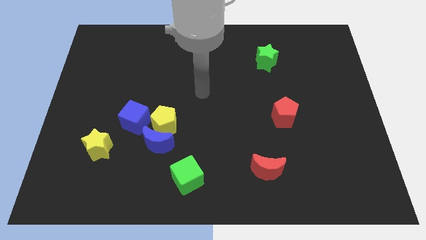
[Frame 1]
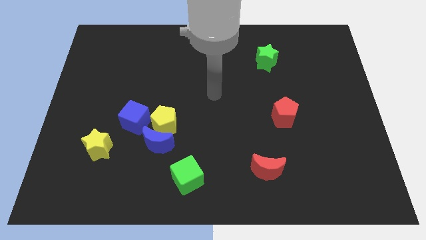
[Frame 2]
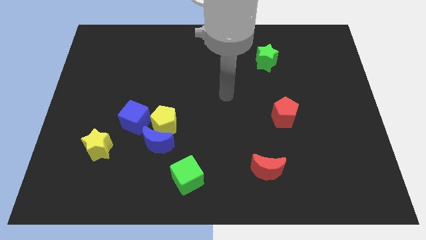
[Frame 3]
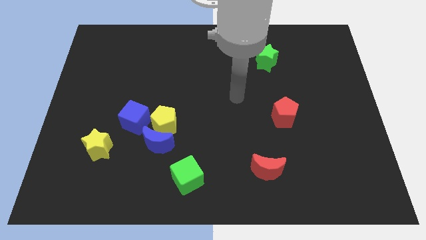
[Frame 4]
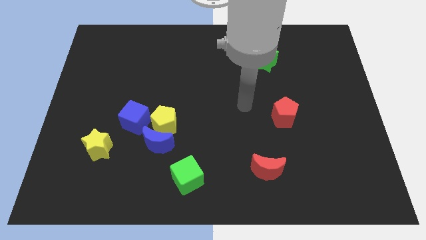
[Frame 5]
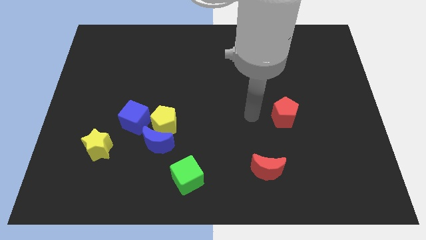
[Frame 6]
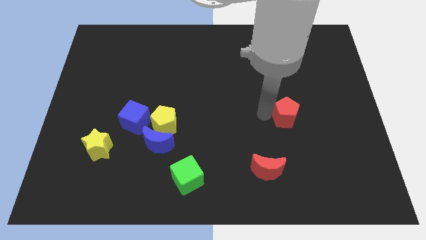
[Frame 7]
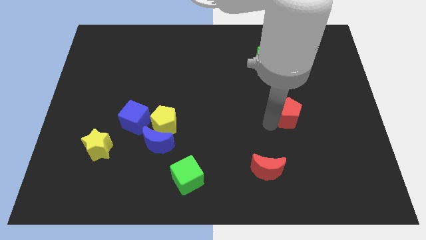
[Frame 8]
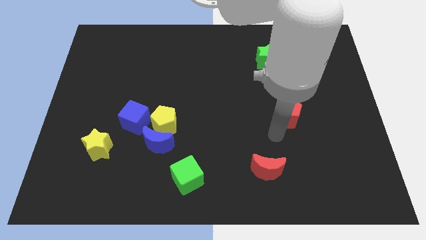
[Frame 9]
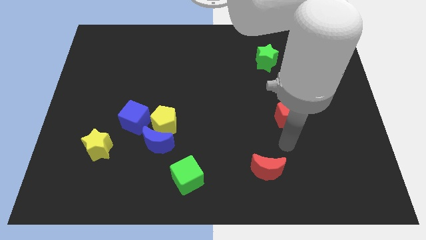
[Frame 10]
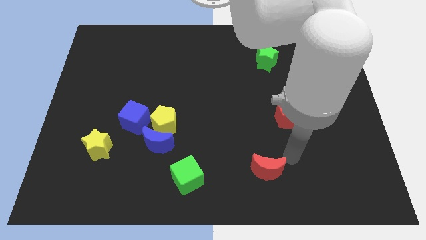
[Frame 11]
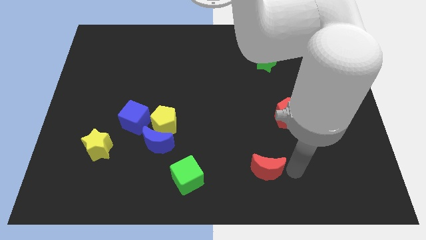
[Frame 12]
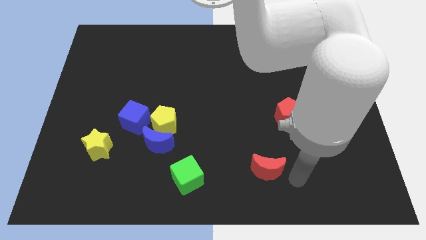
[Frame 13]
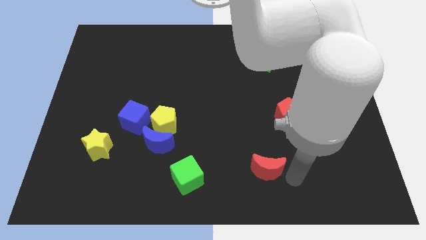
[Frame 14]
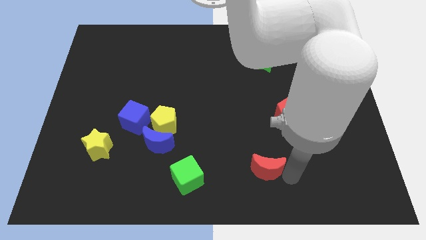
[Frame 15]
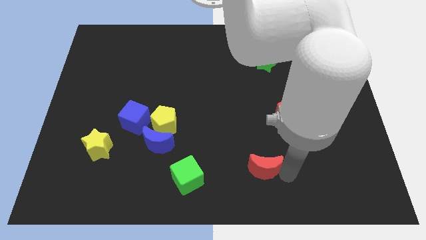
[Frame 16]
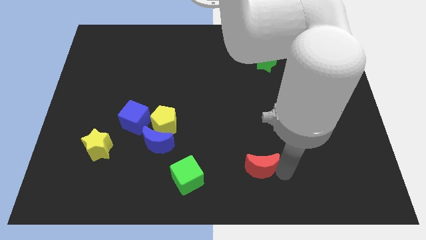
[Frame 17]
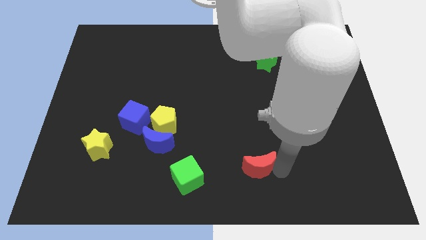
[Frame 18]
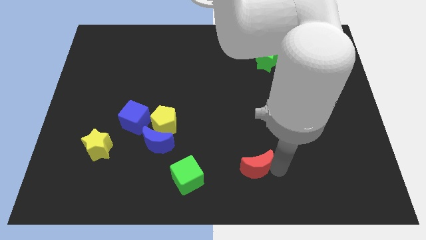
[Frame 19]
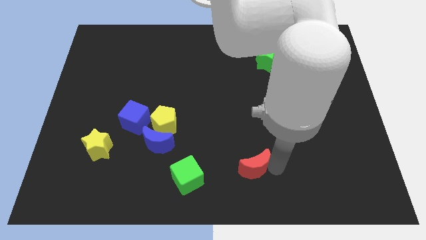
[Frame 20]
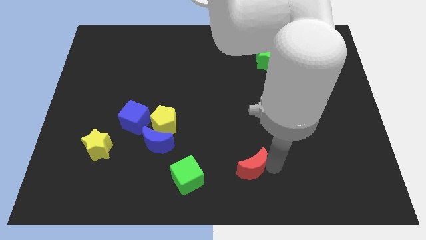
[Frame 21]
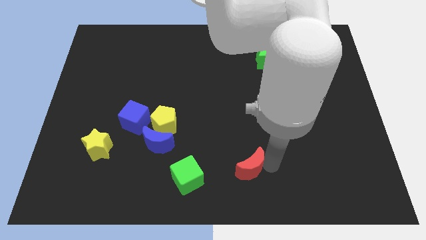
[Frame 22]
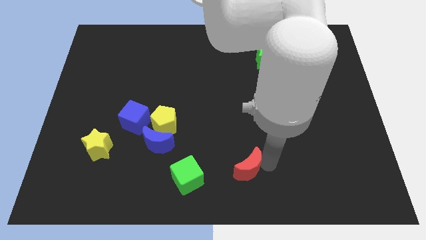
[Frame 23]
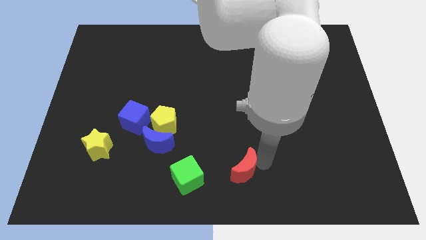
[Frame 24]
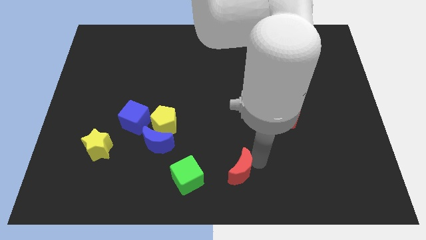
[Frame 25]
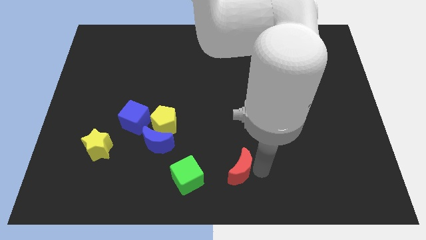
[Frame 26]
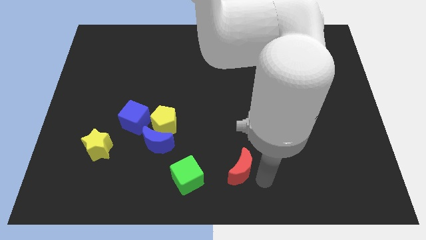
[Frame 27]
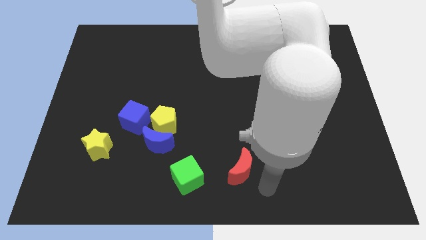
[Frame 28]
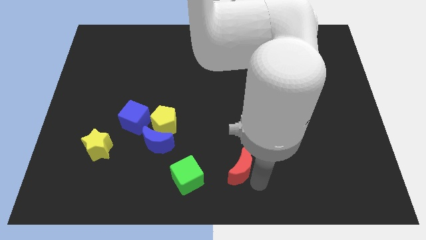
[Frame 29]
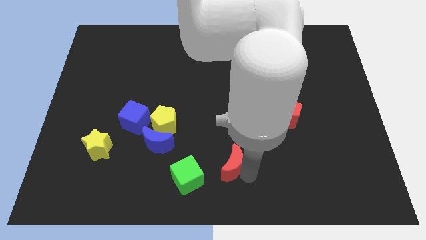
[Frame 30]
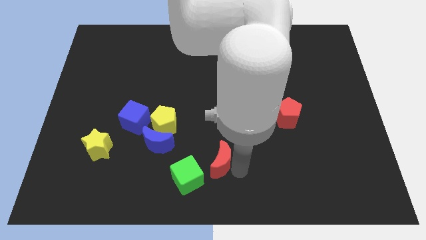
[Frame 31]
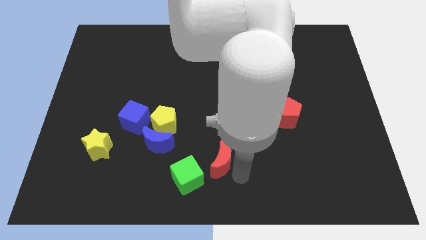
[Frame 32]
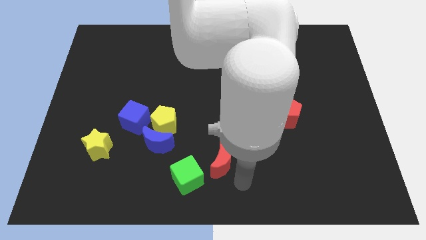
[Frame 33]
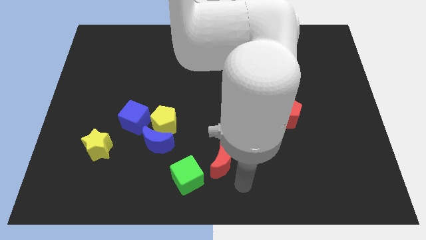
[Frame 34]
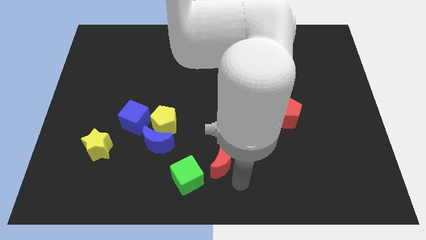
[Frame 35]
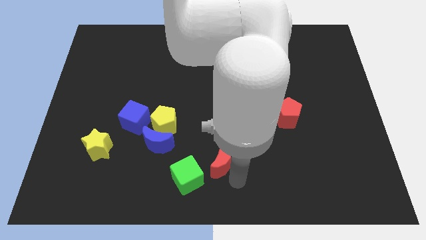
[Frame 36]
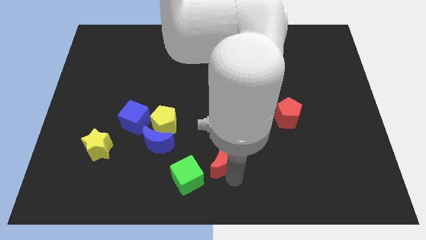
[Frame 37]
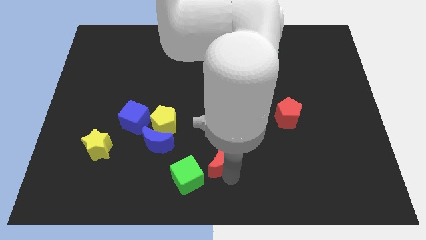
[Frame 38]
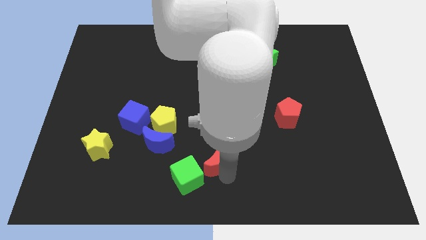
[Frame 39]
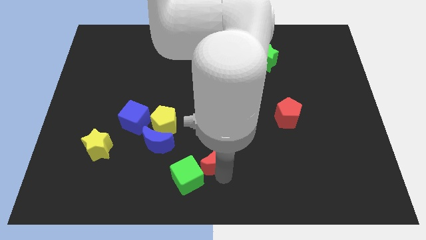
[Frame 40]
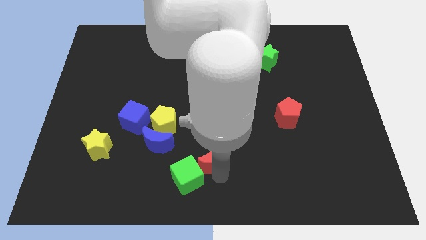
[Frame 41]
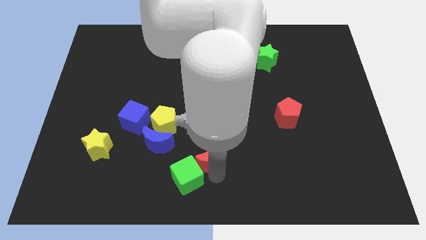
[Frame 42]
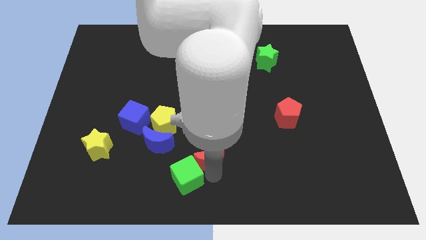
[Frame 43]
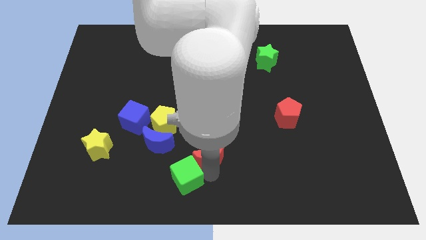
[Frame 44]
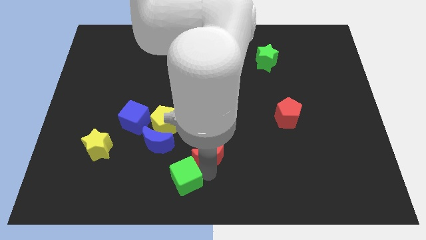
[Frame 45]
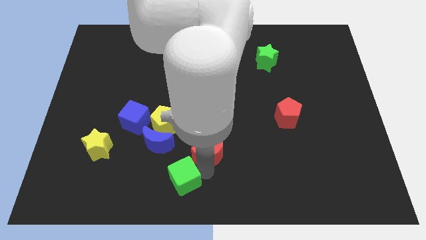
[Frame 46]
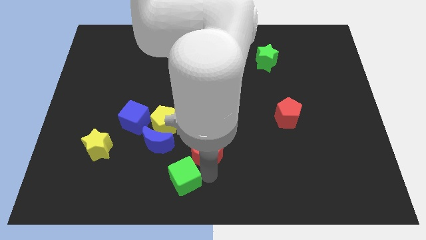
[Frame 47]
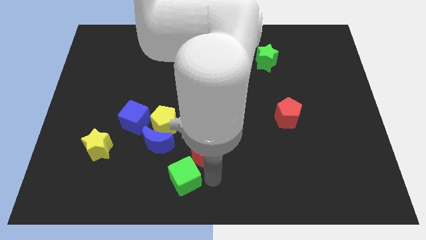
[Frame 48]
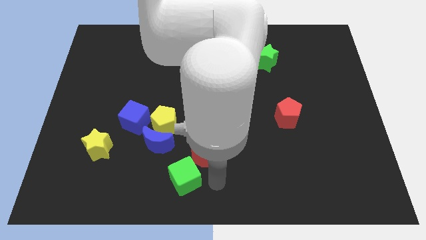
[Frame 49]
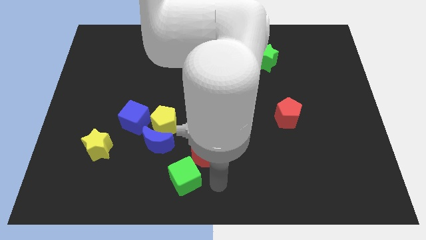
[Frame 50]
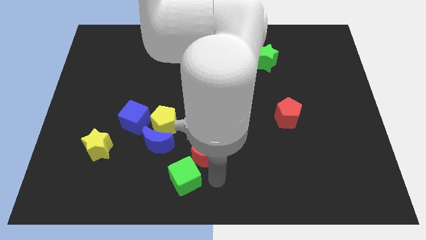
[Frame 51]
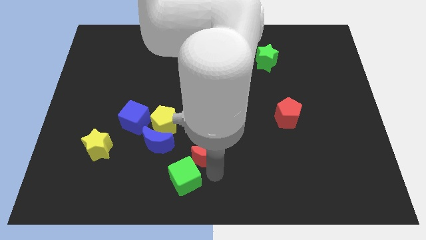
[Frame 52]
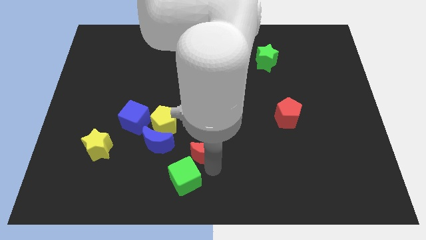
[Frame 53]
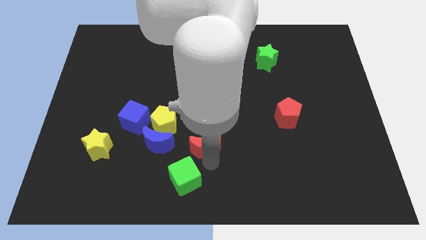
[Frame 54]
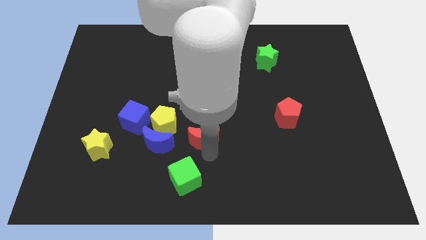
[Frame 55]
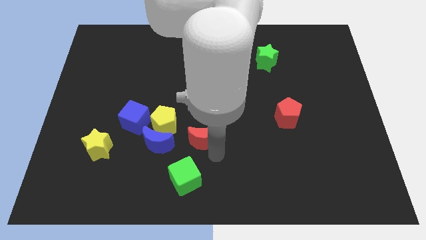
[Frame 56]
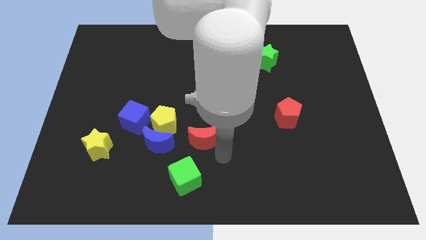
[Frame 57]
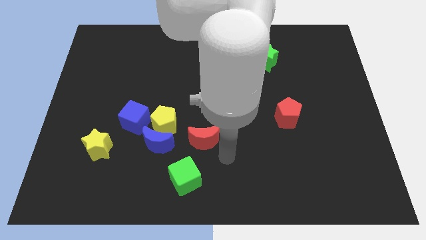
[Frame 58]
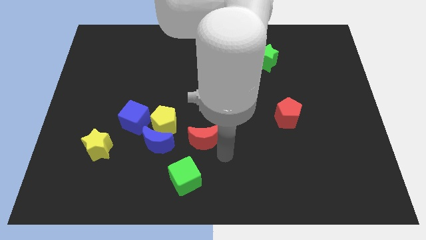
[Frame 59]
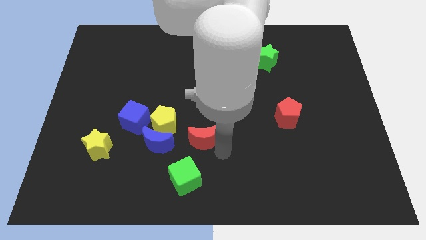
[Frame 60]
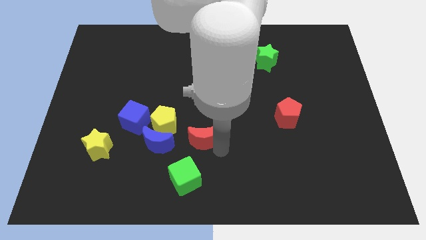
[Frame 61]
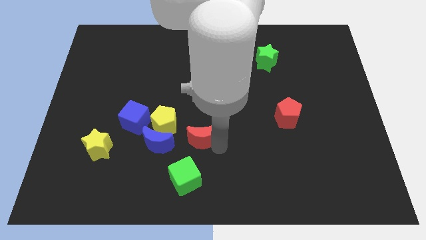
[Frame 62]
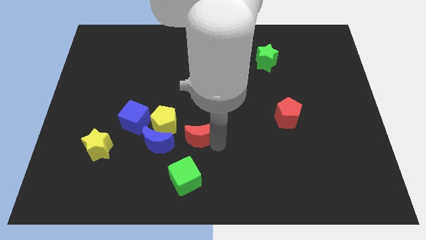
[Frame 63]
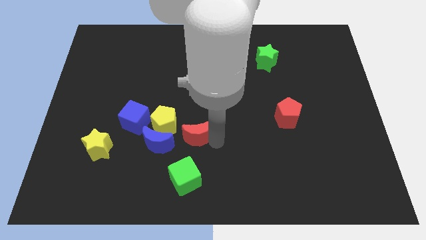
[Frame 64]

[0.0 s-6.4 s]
put the red moon to the top right of the blue moon
